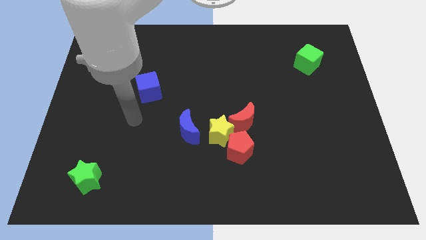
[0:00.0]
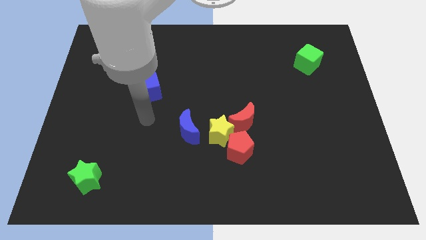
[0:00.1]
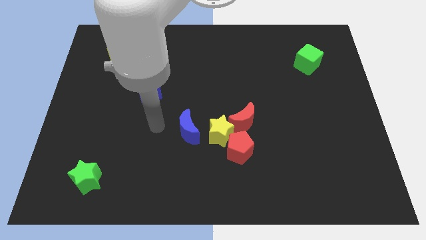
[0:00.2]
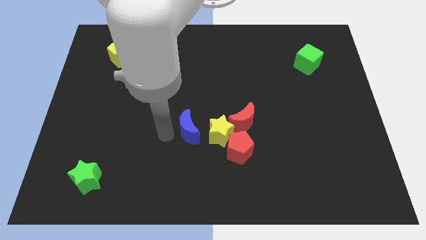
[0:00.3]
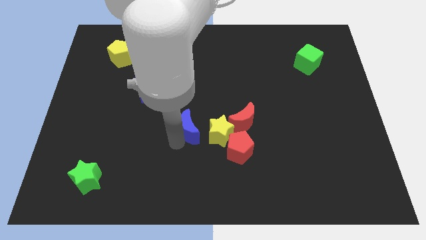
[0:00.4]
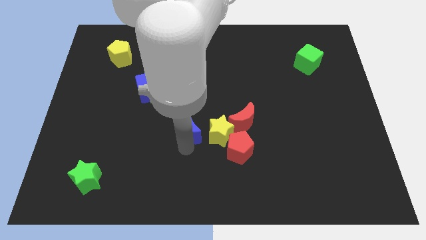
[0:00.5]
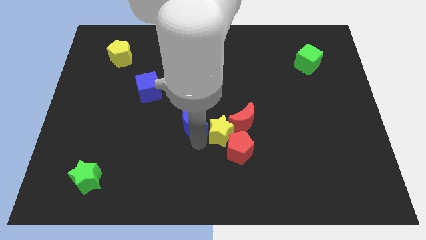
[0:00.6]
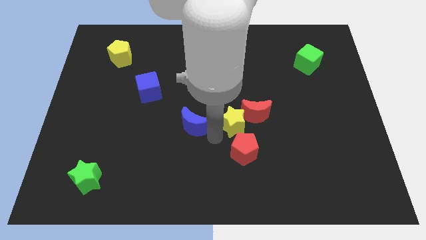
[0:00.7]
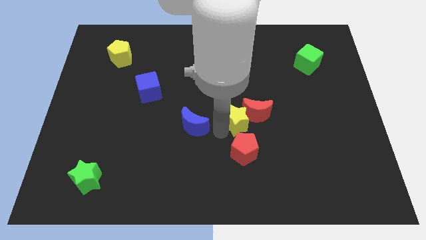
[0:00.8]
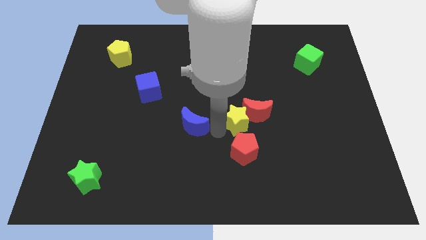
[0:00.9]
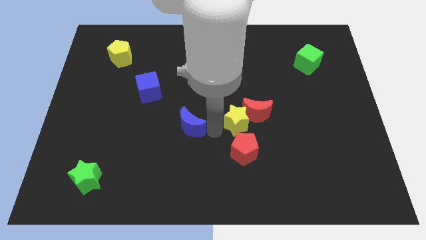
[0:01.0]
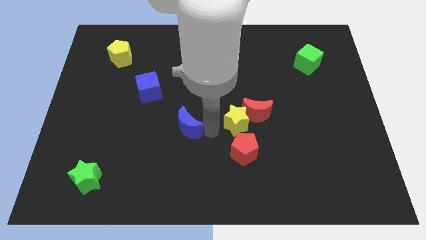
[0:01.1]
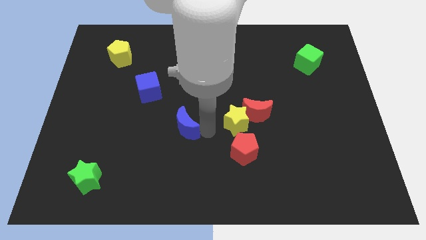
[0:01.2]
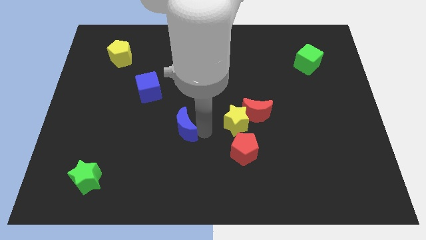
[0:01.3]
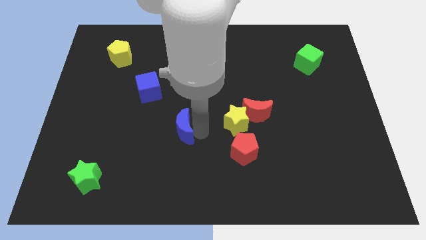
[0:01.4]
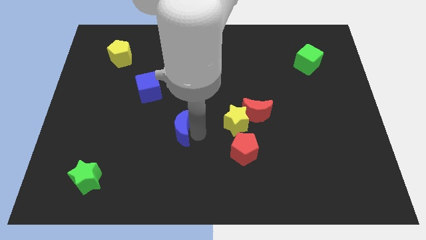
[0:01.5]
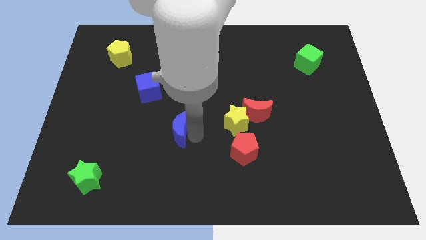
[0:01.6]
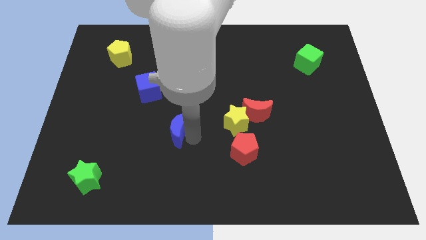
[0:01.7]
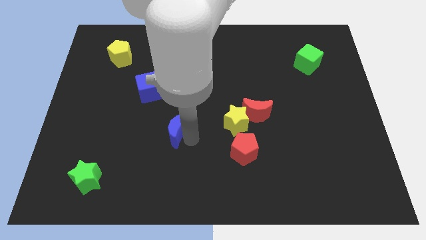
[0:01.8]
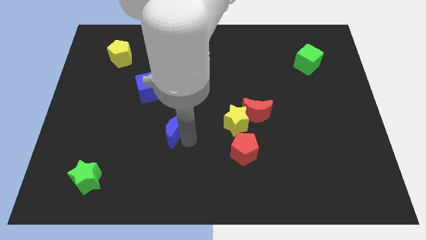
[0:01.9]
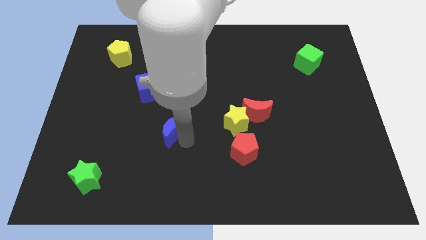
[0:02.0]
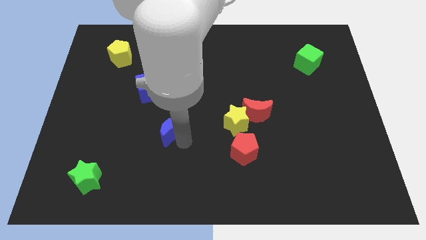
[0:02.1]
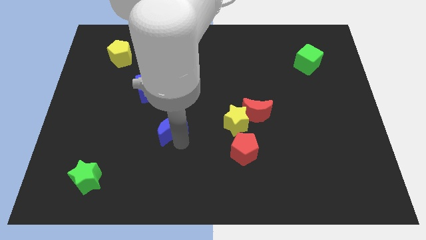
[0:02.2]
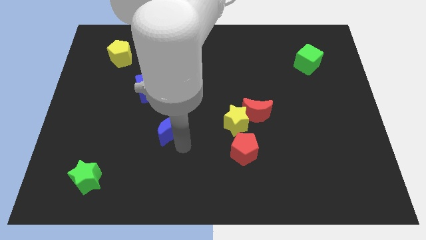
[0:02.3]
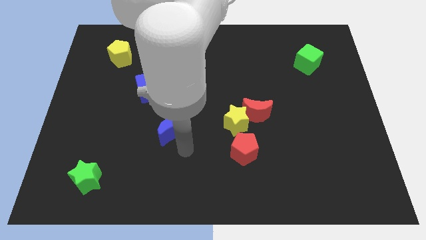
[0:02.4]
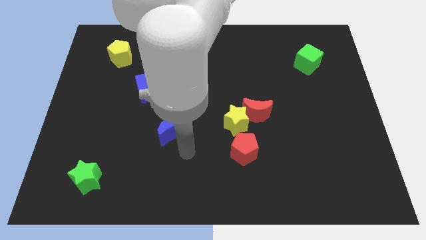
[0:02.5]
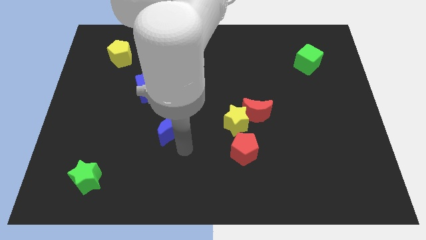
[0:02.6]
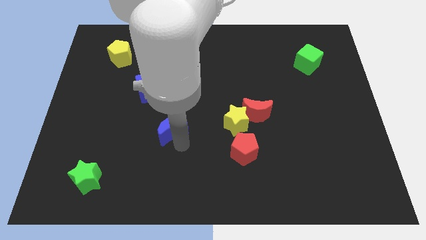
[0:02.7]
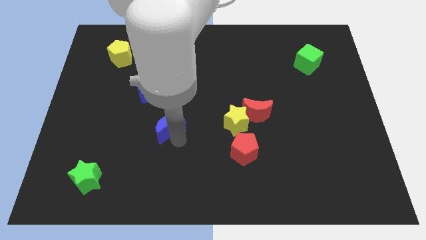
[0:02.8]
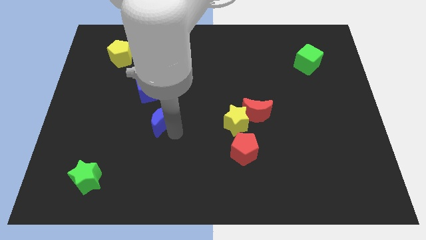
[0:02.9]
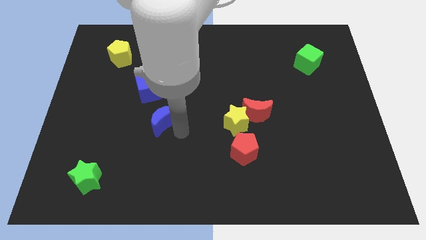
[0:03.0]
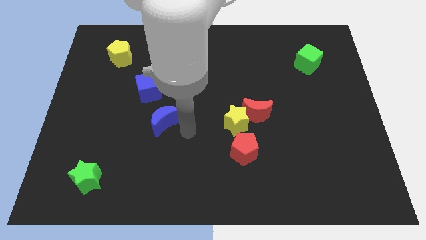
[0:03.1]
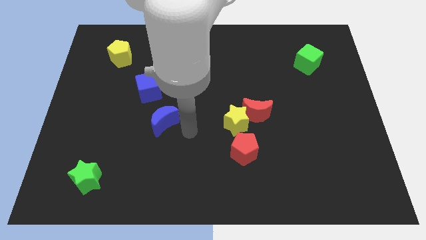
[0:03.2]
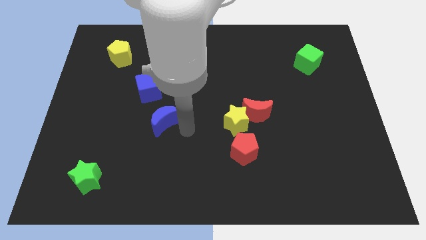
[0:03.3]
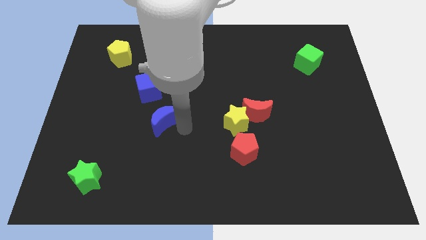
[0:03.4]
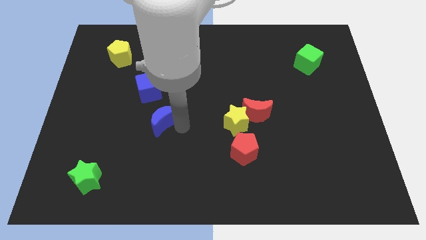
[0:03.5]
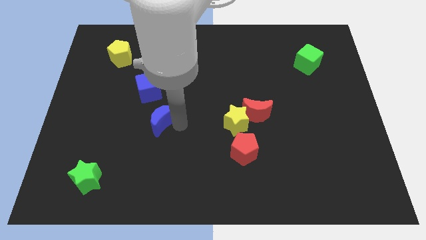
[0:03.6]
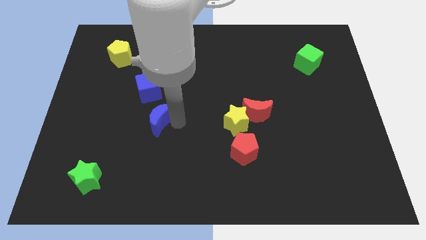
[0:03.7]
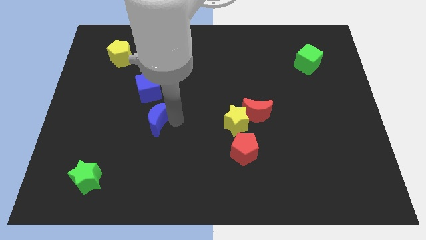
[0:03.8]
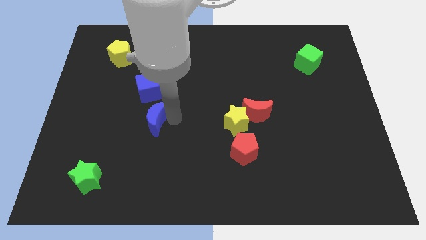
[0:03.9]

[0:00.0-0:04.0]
slide the blue moon upwards and to the left diagonally slightly

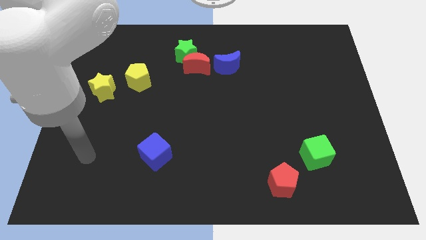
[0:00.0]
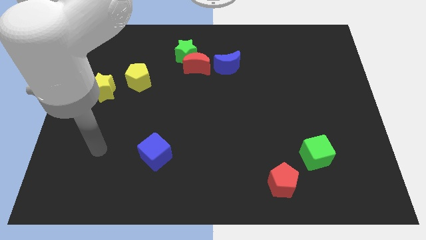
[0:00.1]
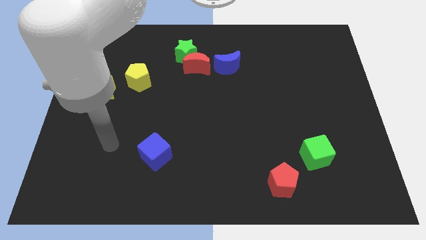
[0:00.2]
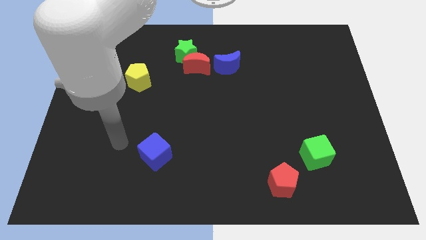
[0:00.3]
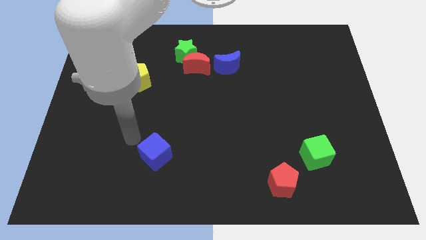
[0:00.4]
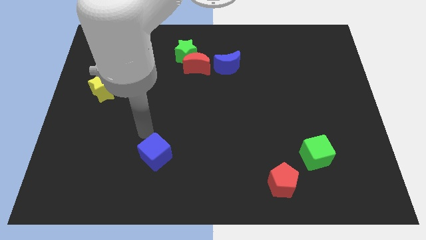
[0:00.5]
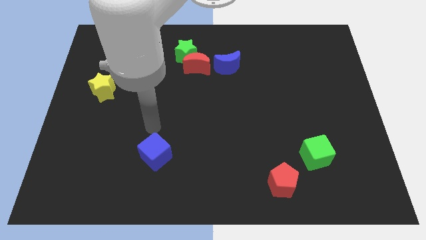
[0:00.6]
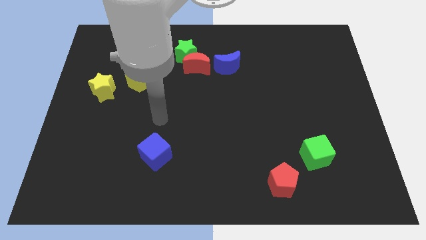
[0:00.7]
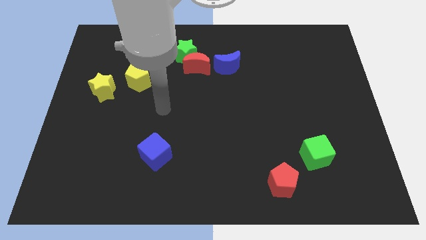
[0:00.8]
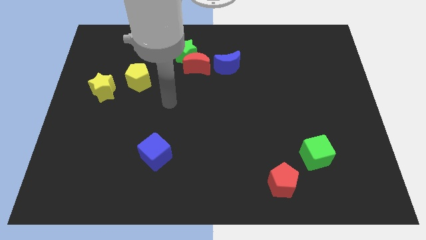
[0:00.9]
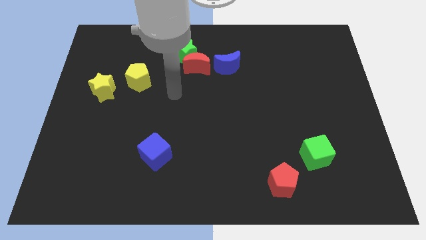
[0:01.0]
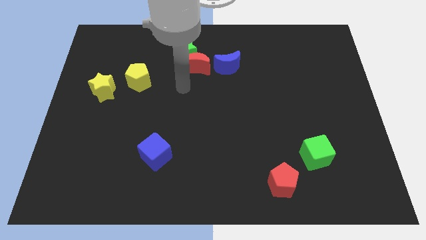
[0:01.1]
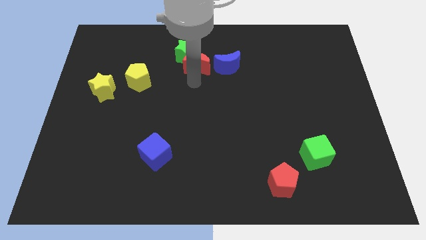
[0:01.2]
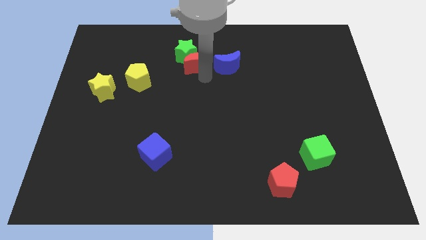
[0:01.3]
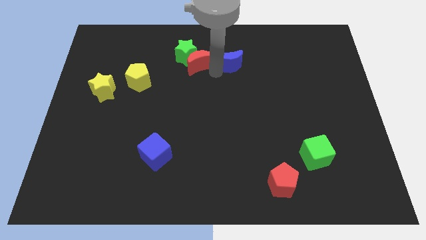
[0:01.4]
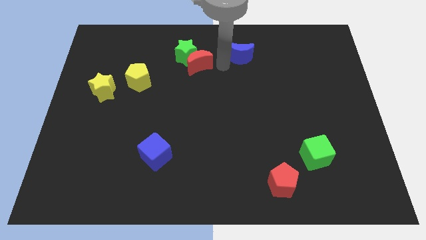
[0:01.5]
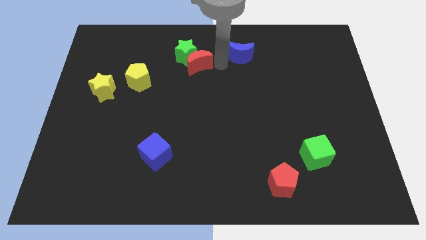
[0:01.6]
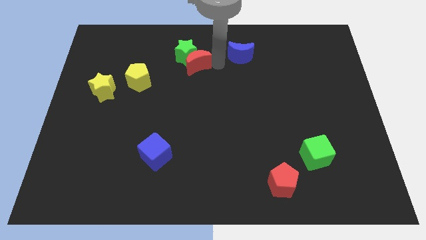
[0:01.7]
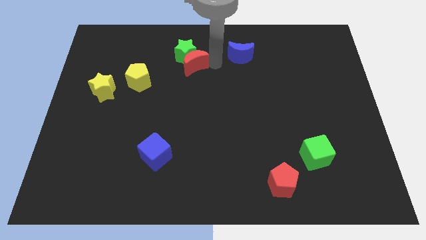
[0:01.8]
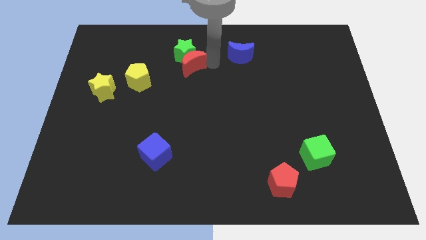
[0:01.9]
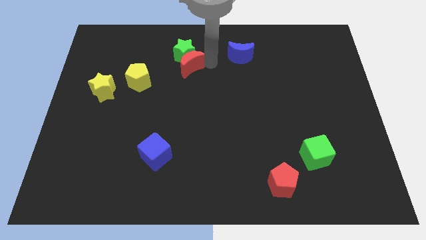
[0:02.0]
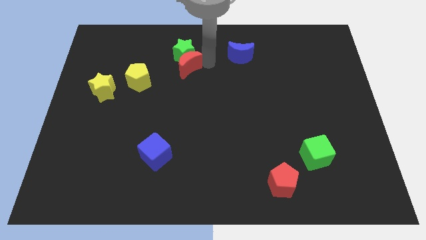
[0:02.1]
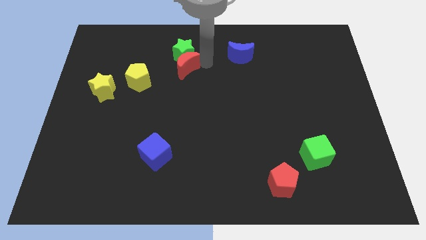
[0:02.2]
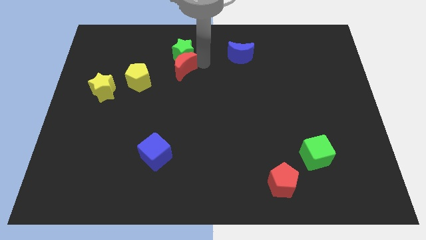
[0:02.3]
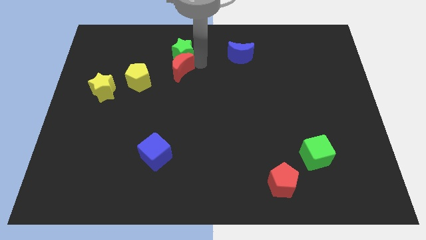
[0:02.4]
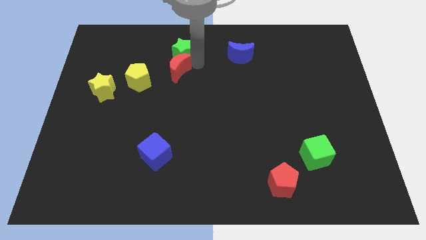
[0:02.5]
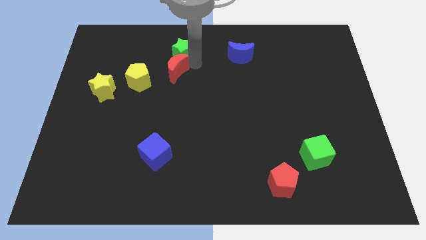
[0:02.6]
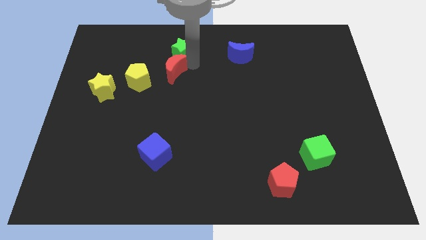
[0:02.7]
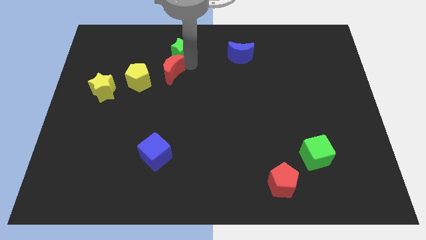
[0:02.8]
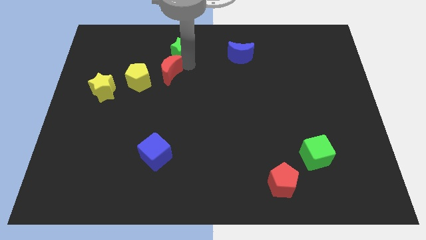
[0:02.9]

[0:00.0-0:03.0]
move the red moon to the left a bit

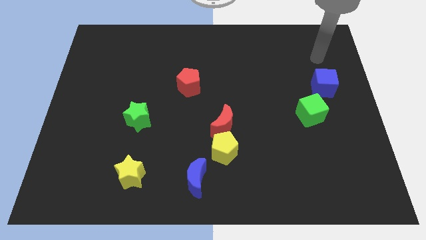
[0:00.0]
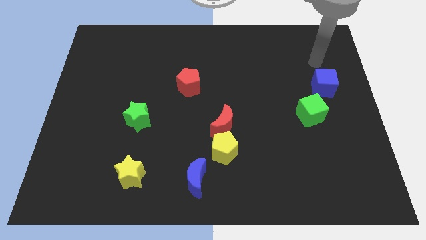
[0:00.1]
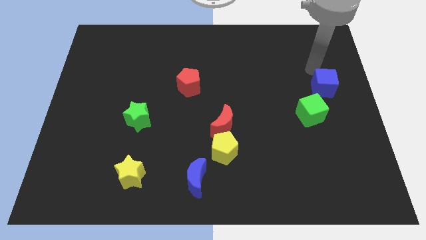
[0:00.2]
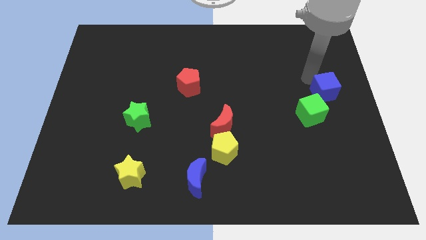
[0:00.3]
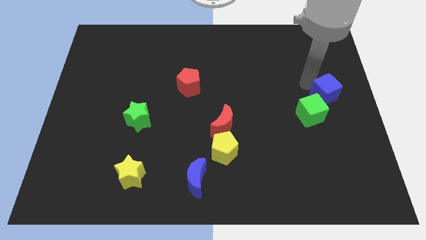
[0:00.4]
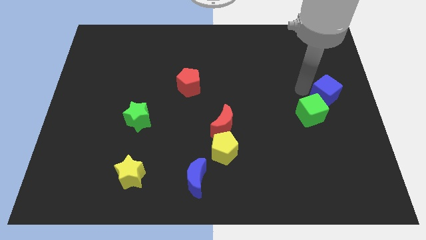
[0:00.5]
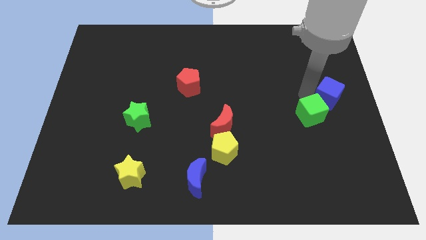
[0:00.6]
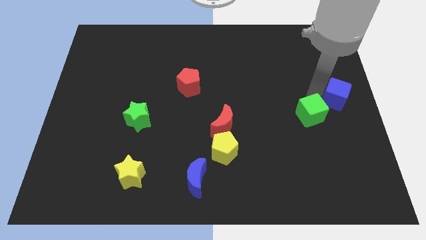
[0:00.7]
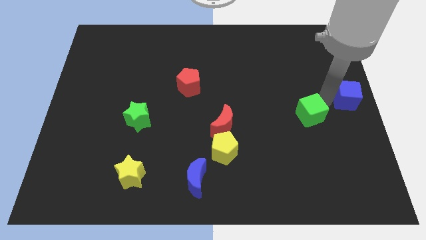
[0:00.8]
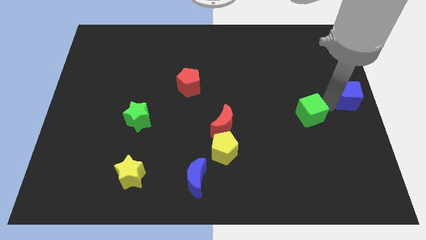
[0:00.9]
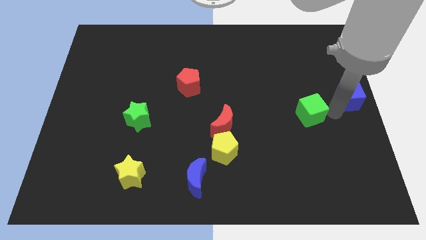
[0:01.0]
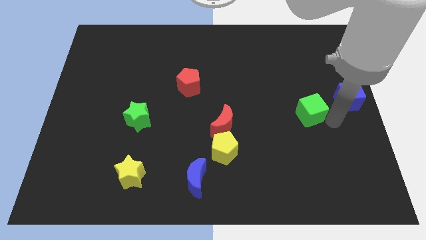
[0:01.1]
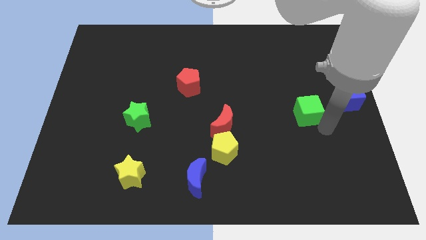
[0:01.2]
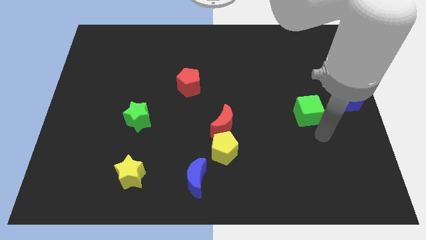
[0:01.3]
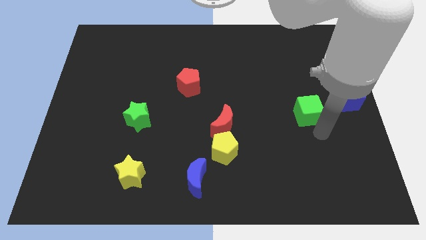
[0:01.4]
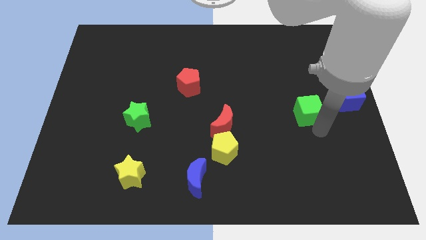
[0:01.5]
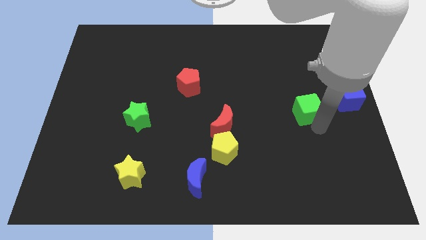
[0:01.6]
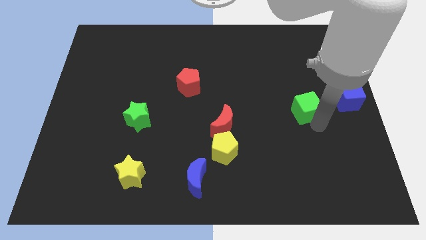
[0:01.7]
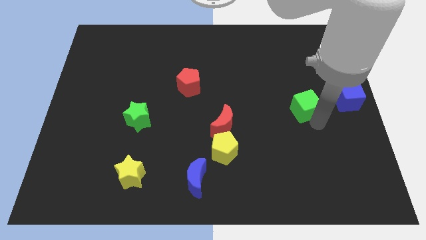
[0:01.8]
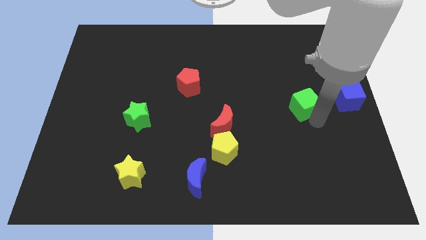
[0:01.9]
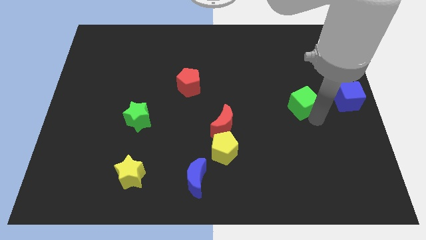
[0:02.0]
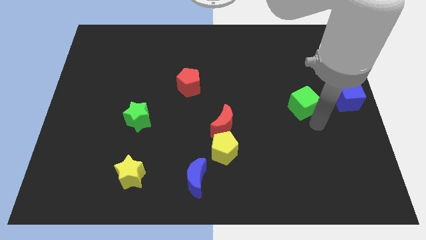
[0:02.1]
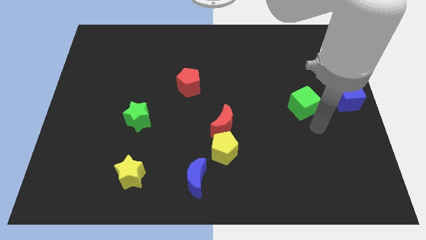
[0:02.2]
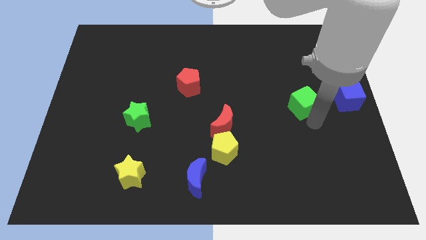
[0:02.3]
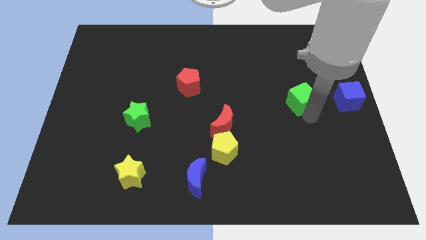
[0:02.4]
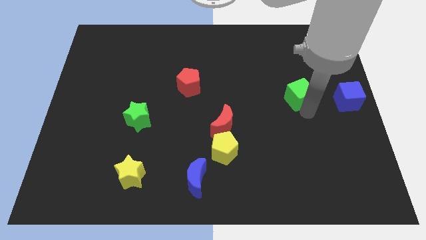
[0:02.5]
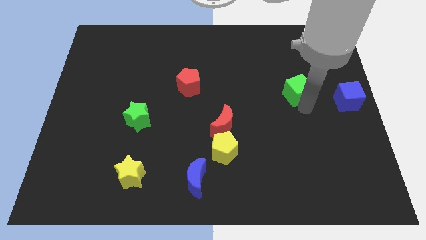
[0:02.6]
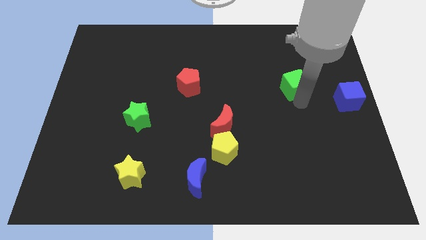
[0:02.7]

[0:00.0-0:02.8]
slightly move the green cube up
